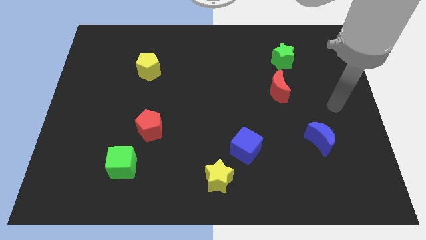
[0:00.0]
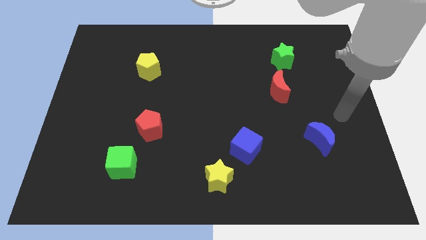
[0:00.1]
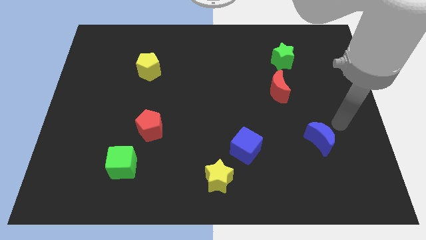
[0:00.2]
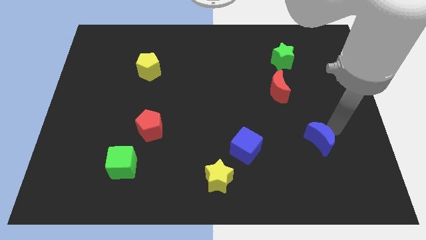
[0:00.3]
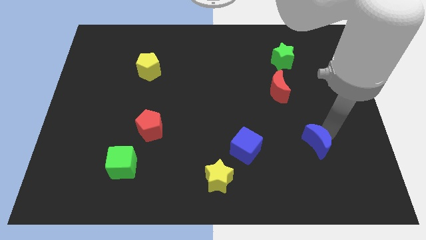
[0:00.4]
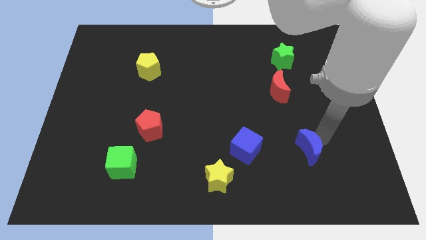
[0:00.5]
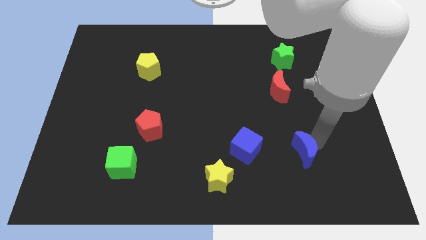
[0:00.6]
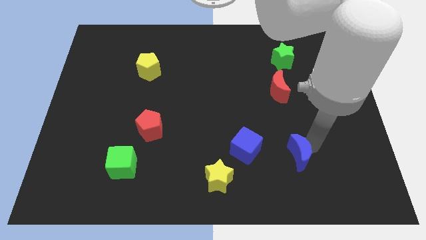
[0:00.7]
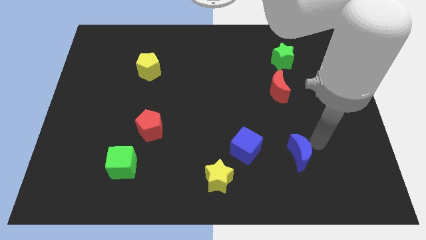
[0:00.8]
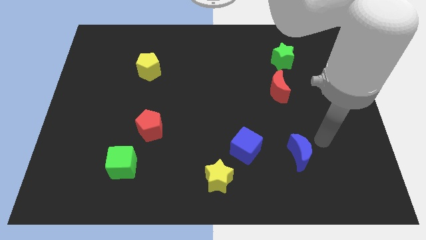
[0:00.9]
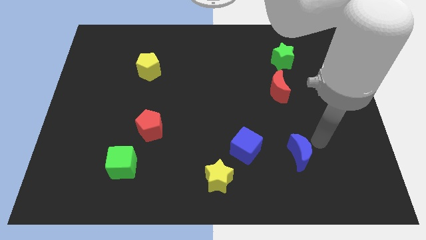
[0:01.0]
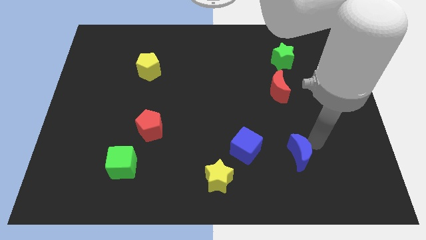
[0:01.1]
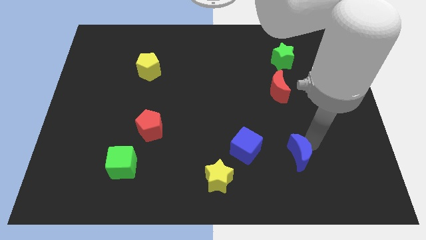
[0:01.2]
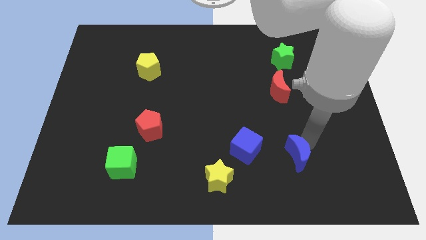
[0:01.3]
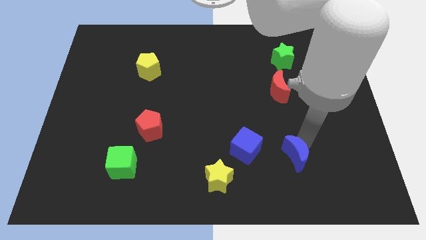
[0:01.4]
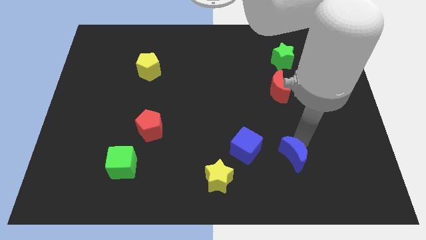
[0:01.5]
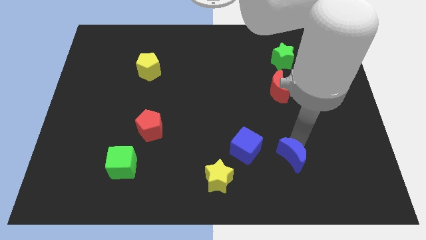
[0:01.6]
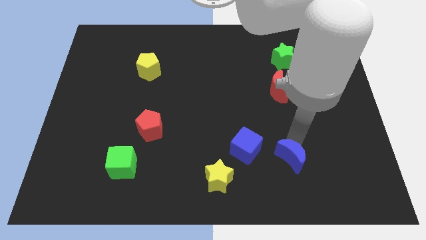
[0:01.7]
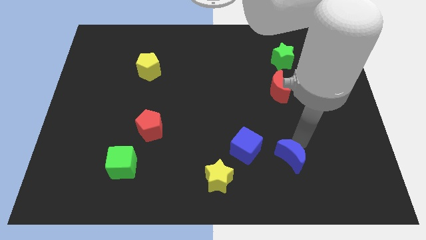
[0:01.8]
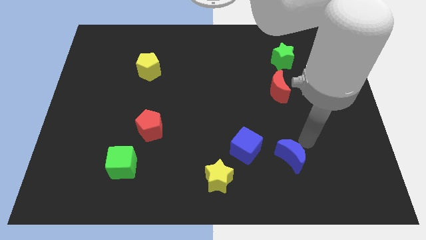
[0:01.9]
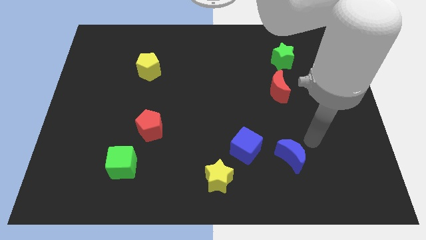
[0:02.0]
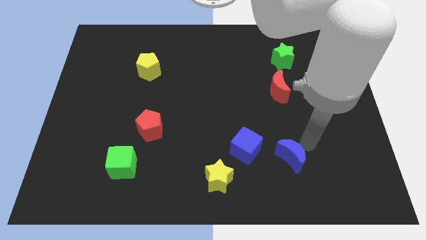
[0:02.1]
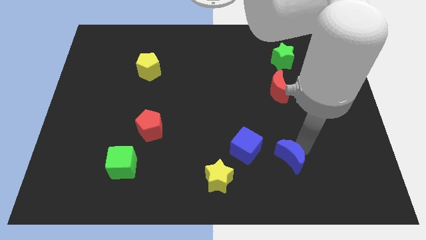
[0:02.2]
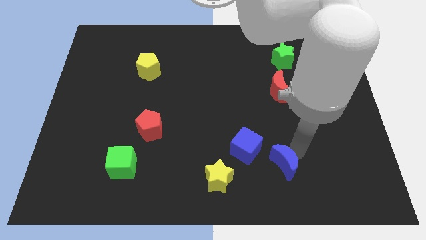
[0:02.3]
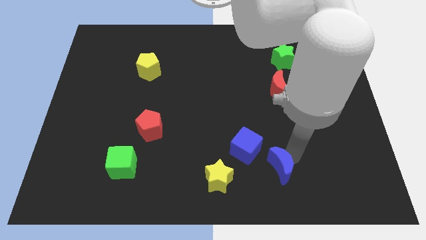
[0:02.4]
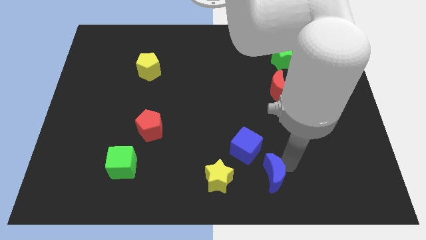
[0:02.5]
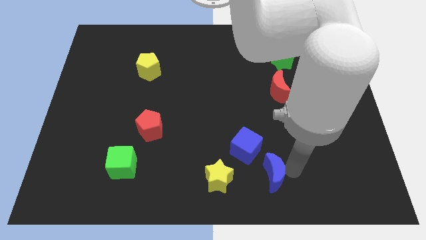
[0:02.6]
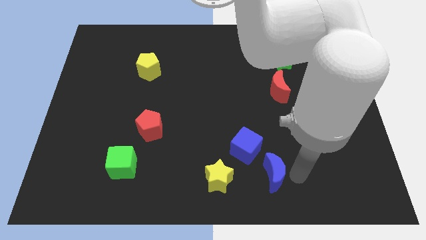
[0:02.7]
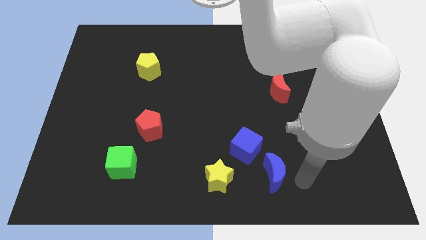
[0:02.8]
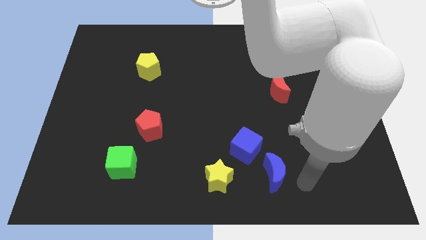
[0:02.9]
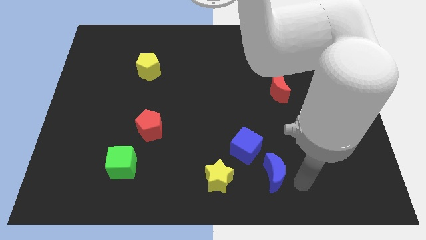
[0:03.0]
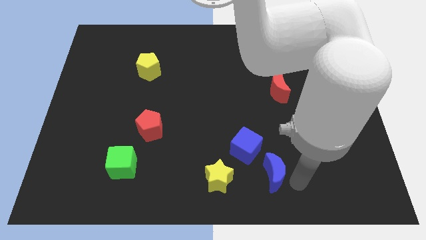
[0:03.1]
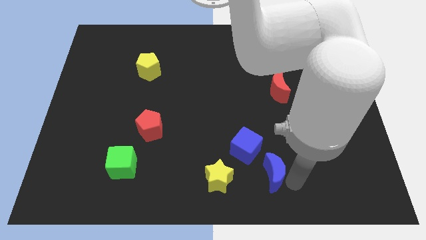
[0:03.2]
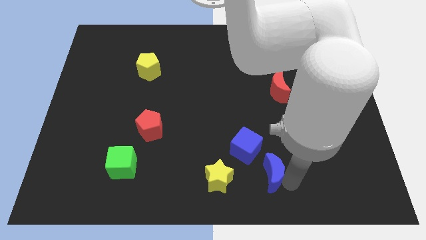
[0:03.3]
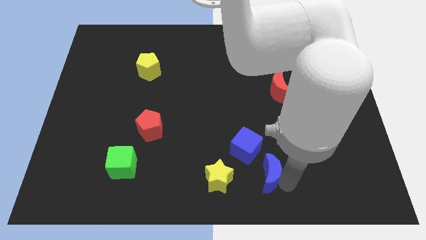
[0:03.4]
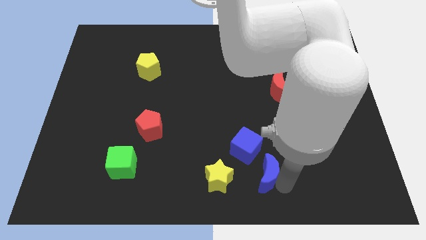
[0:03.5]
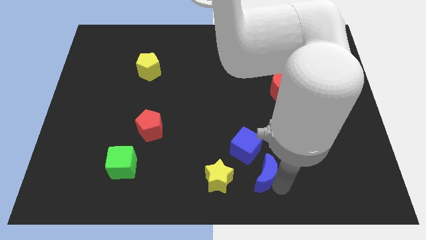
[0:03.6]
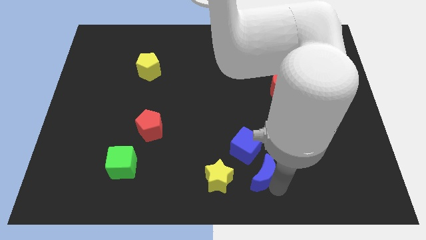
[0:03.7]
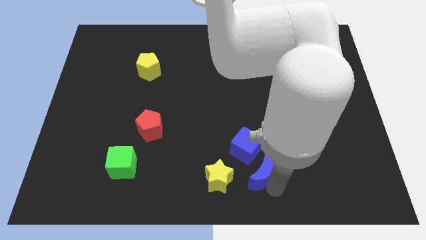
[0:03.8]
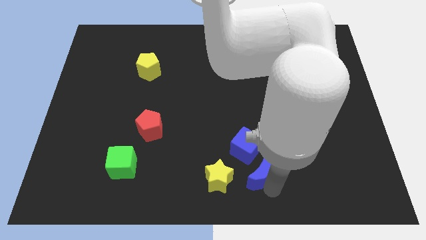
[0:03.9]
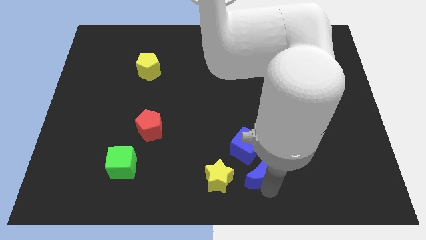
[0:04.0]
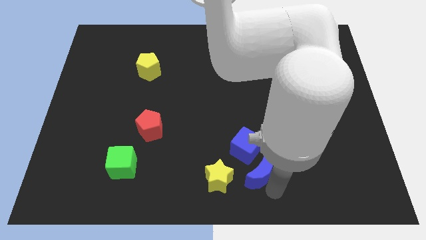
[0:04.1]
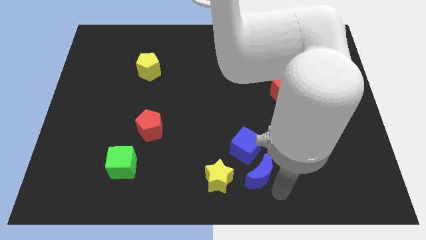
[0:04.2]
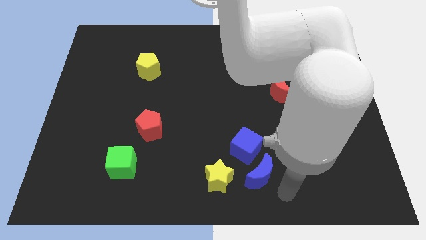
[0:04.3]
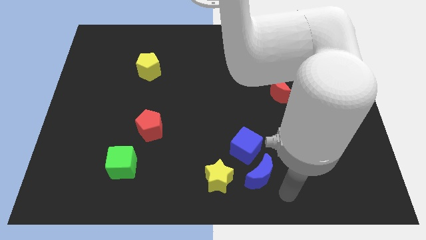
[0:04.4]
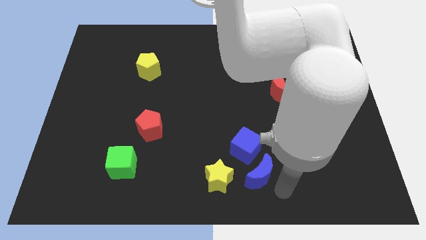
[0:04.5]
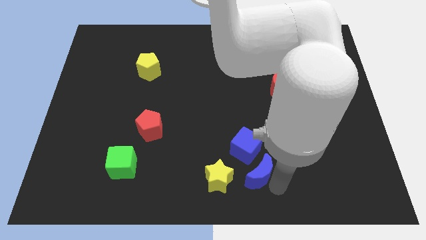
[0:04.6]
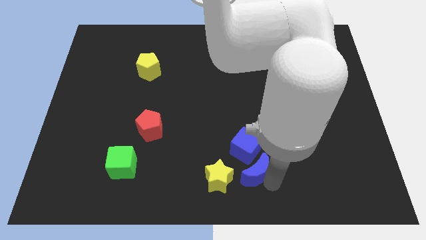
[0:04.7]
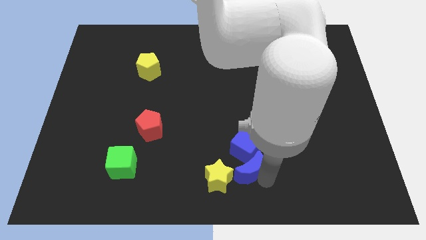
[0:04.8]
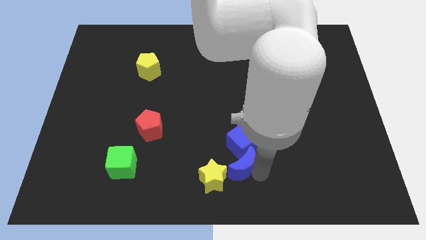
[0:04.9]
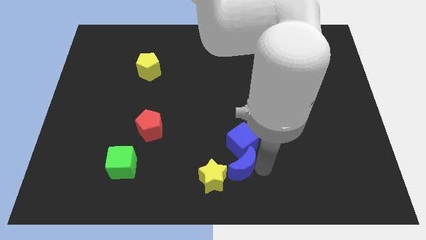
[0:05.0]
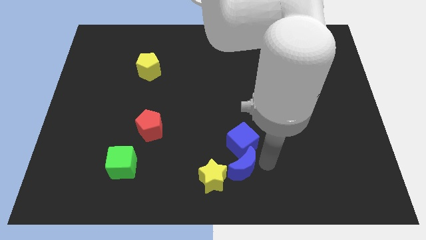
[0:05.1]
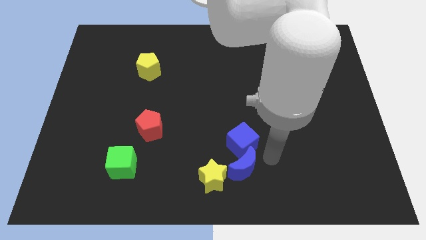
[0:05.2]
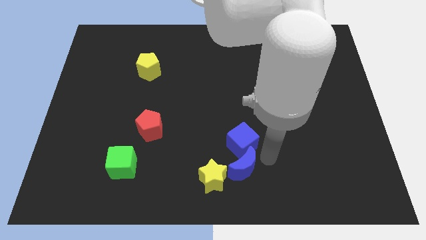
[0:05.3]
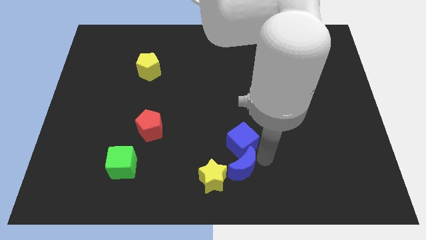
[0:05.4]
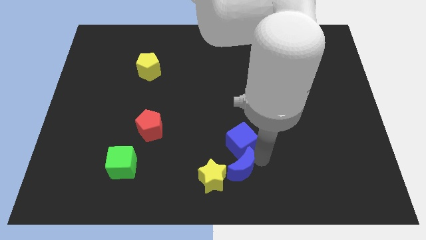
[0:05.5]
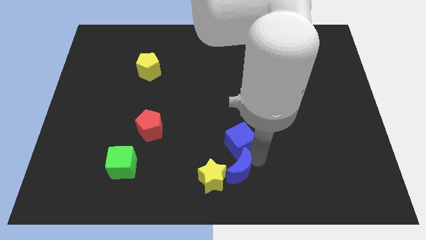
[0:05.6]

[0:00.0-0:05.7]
slide the blue moon next to the yellow star
